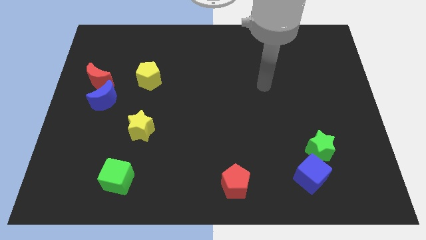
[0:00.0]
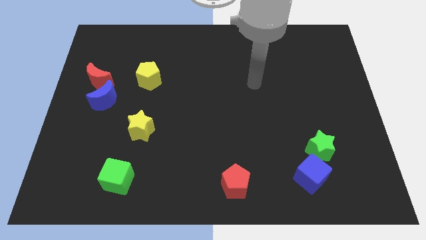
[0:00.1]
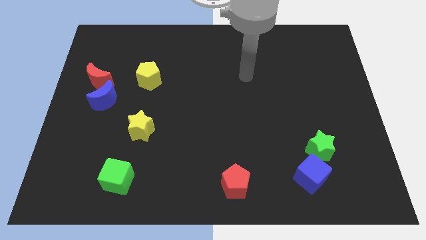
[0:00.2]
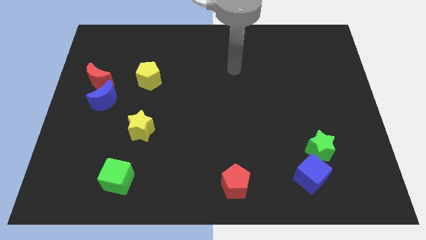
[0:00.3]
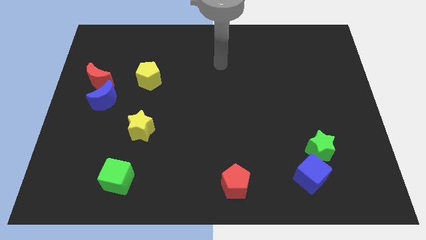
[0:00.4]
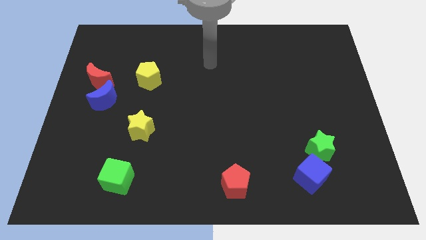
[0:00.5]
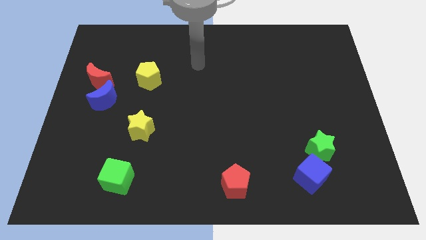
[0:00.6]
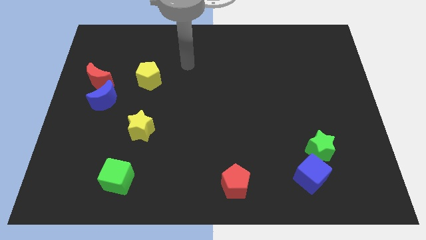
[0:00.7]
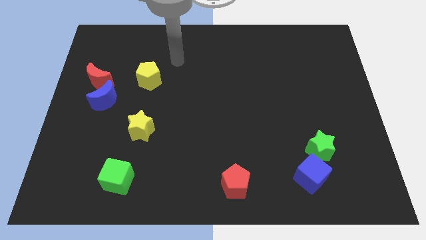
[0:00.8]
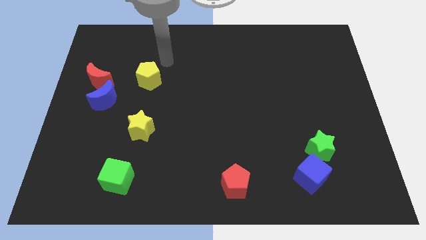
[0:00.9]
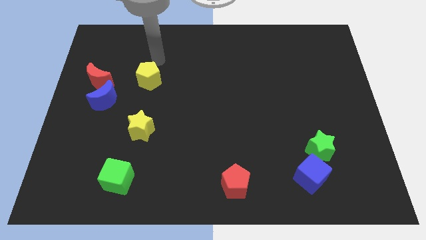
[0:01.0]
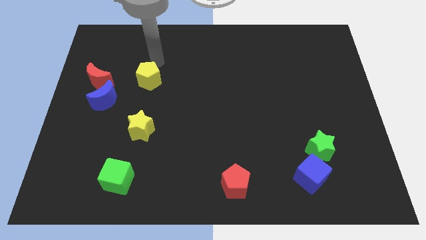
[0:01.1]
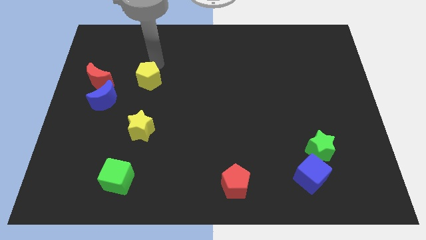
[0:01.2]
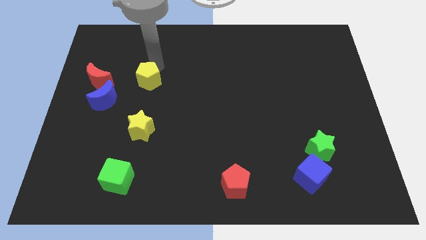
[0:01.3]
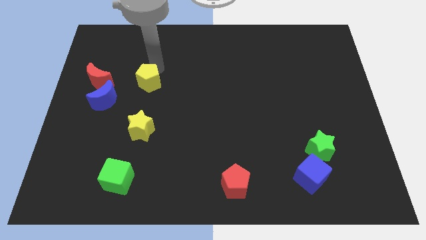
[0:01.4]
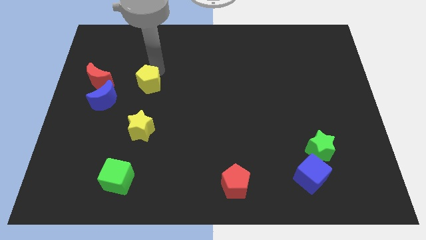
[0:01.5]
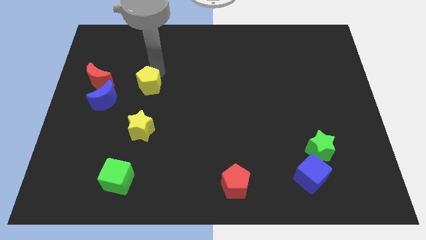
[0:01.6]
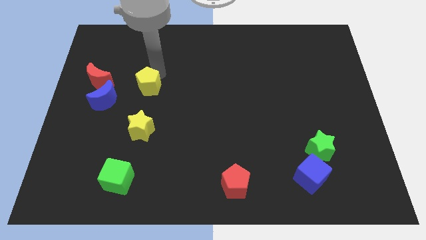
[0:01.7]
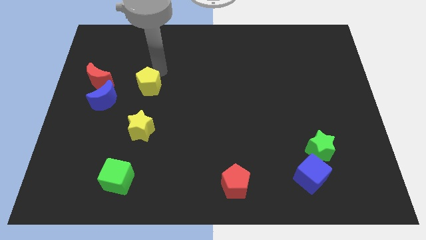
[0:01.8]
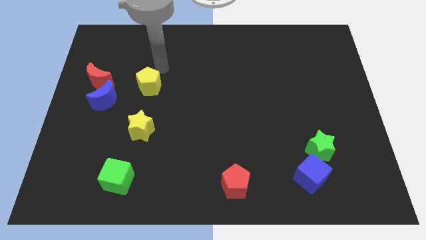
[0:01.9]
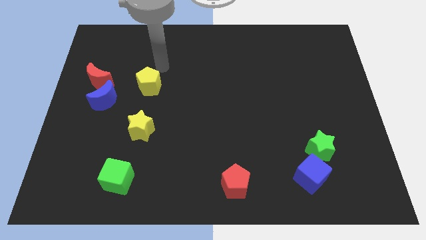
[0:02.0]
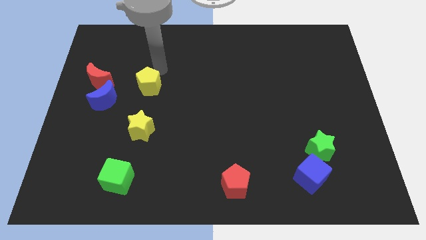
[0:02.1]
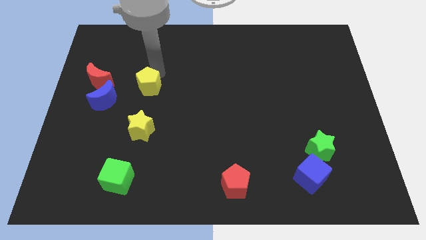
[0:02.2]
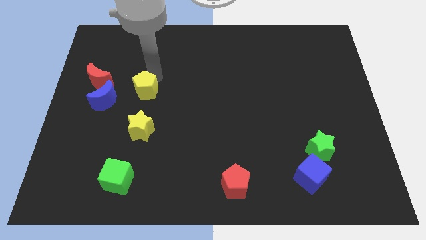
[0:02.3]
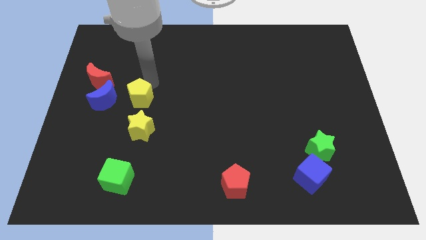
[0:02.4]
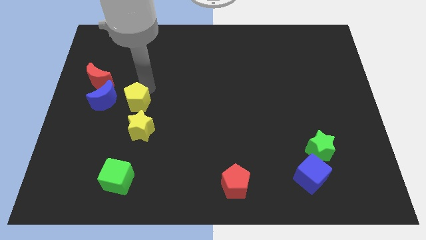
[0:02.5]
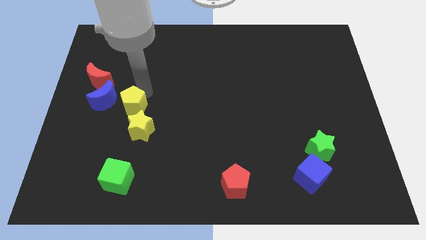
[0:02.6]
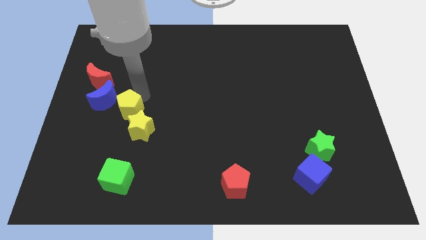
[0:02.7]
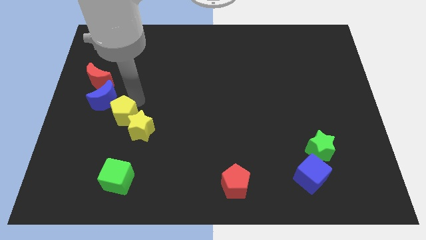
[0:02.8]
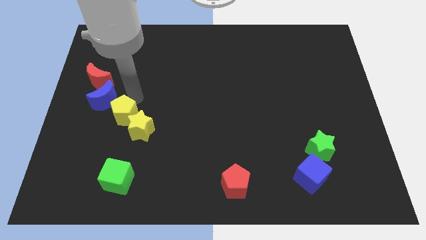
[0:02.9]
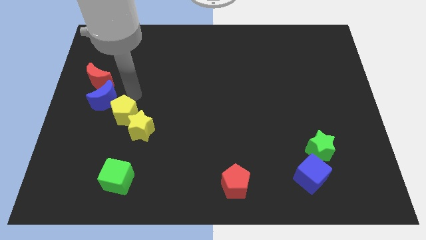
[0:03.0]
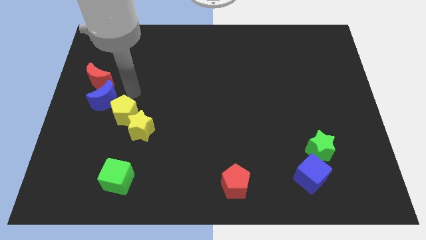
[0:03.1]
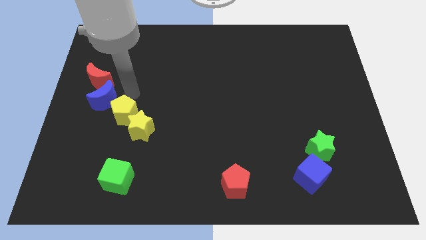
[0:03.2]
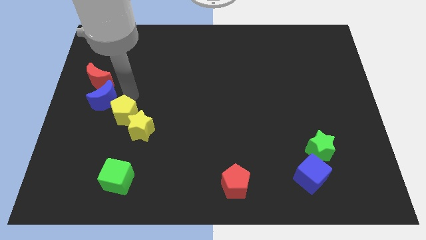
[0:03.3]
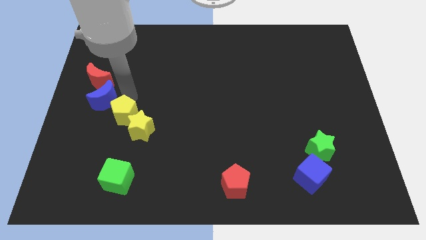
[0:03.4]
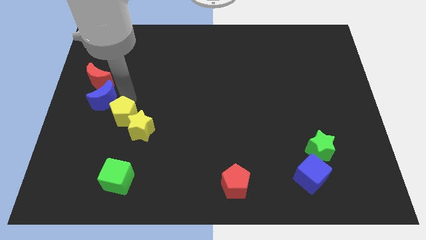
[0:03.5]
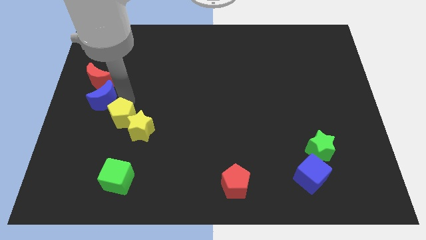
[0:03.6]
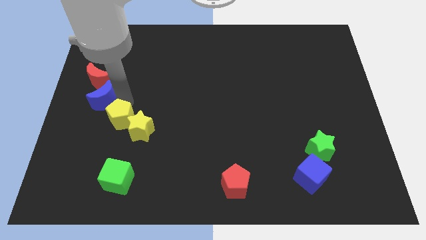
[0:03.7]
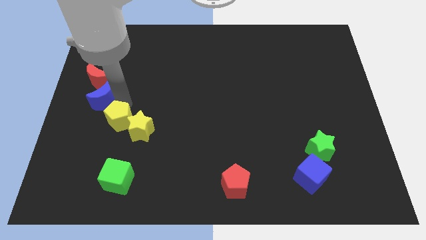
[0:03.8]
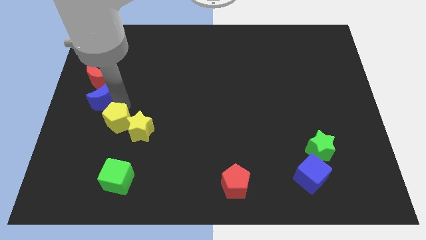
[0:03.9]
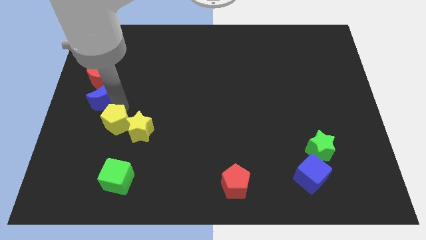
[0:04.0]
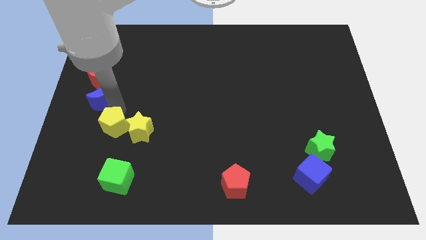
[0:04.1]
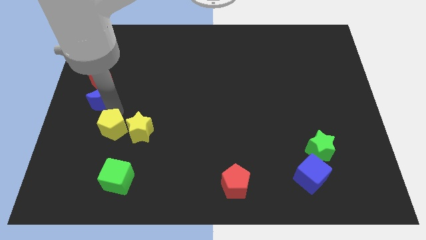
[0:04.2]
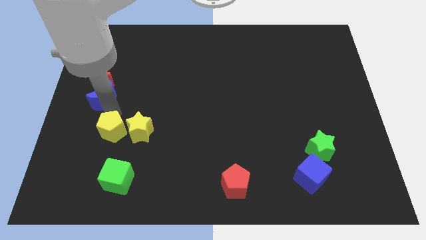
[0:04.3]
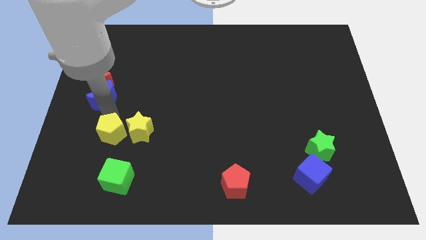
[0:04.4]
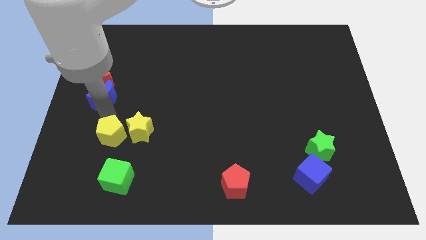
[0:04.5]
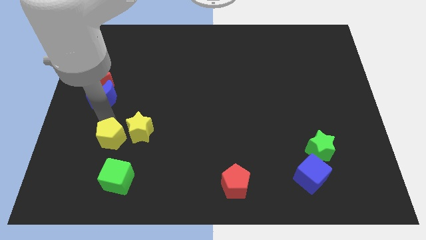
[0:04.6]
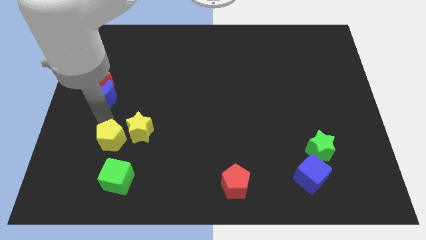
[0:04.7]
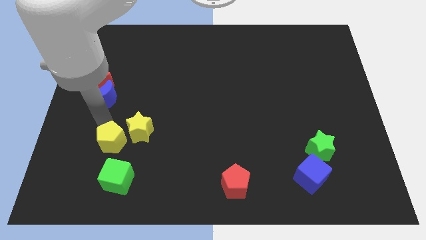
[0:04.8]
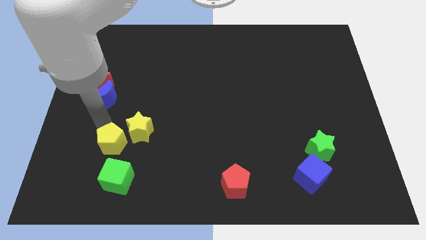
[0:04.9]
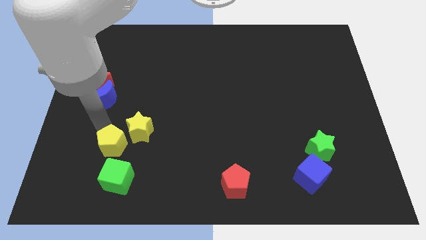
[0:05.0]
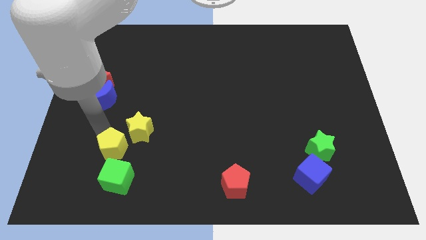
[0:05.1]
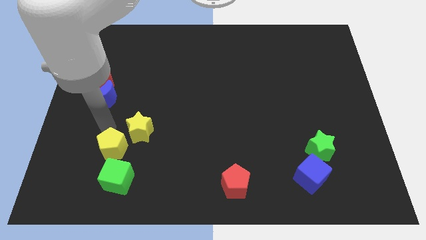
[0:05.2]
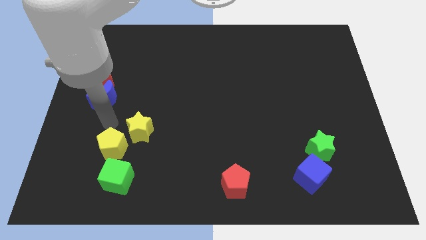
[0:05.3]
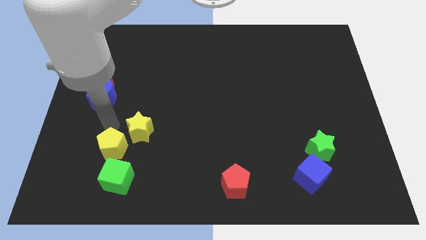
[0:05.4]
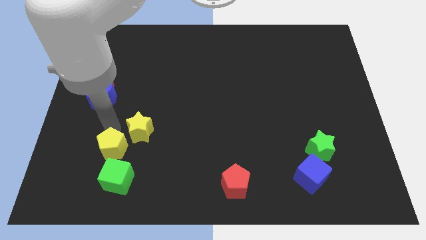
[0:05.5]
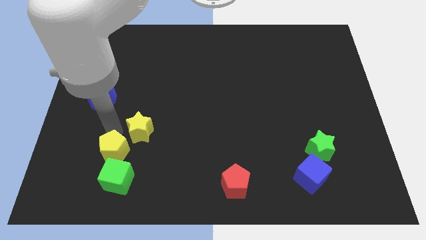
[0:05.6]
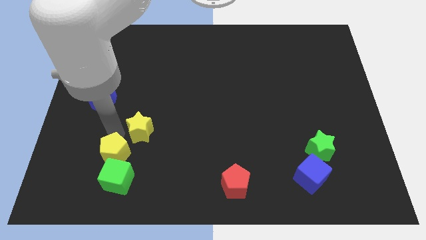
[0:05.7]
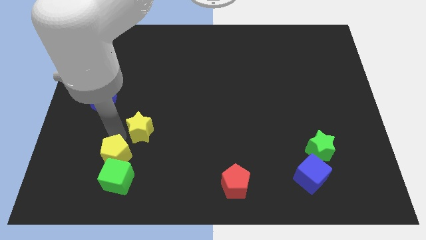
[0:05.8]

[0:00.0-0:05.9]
slide the yellow pentagon next to the green cube

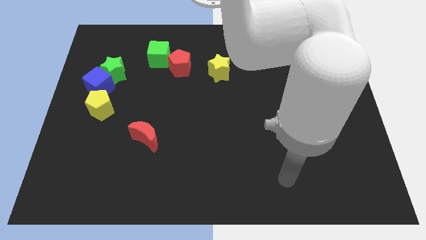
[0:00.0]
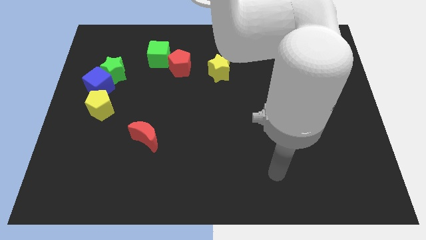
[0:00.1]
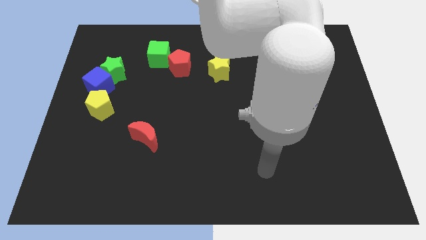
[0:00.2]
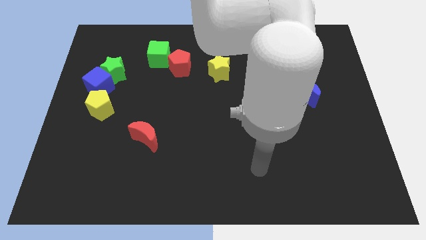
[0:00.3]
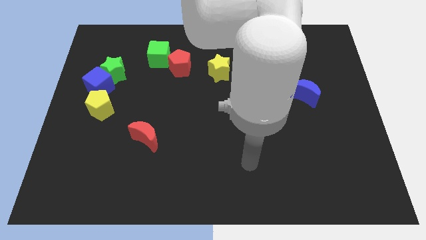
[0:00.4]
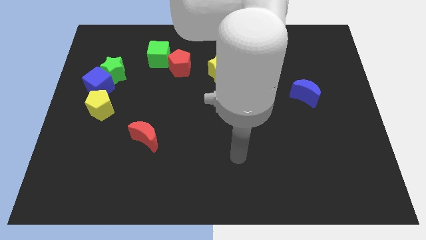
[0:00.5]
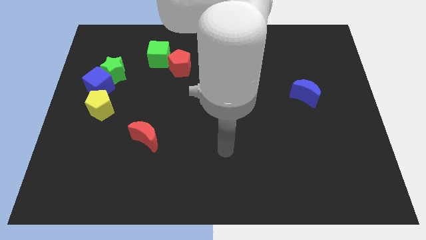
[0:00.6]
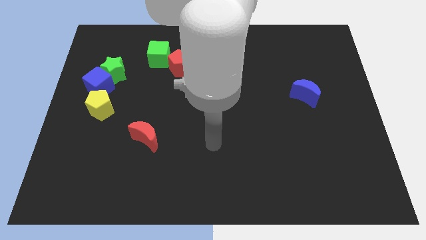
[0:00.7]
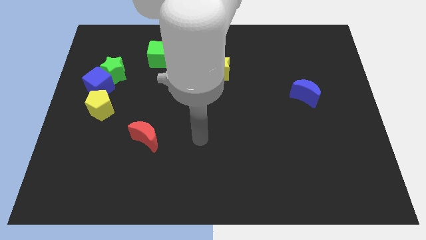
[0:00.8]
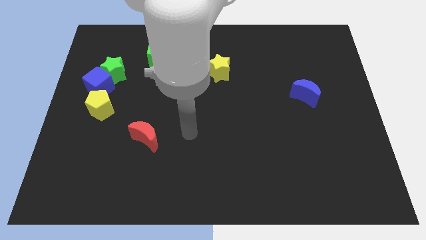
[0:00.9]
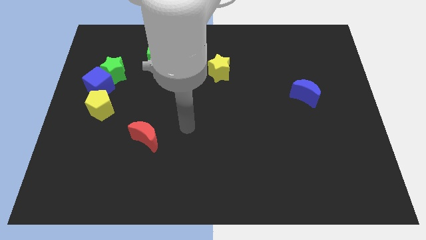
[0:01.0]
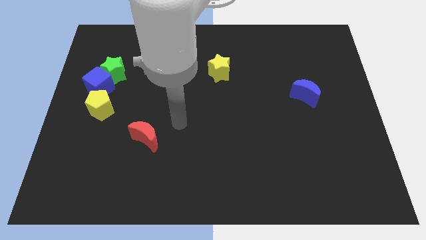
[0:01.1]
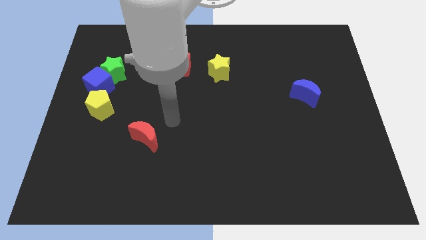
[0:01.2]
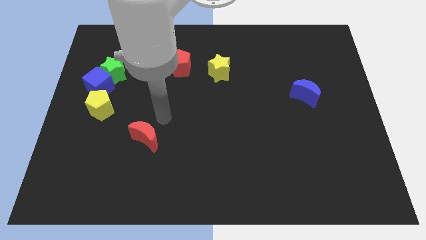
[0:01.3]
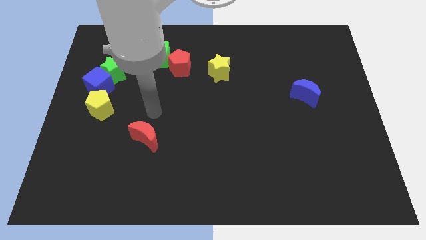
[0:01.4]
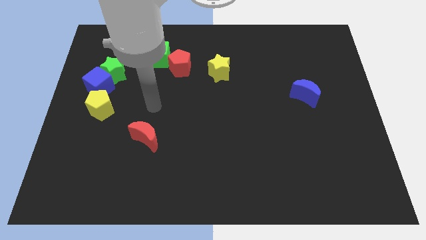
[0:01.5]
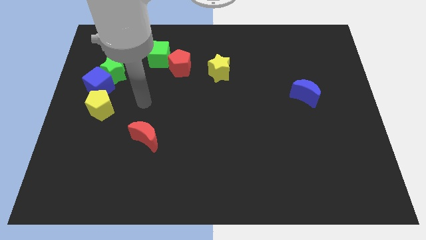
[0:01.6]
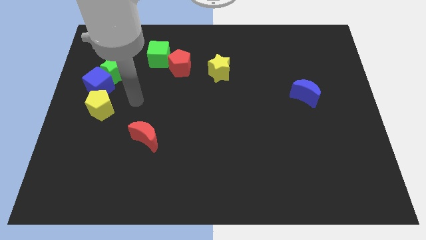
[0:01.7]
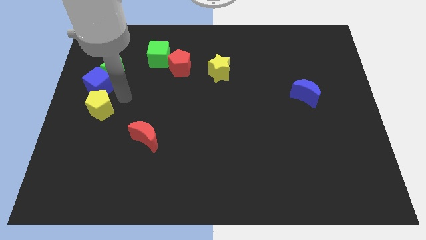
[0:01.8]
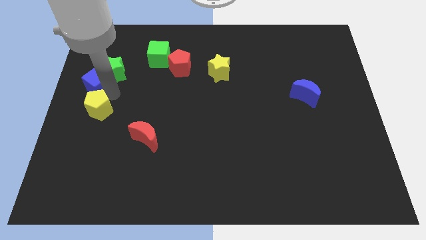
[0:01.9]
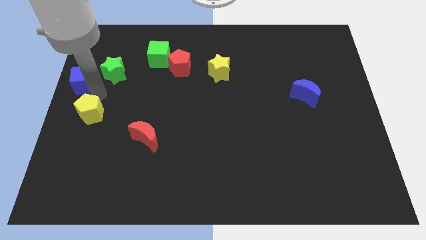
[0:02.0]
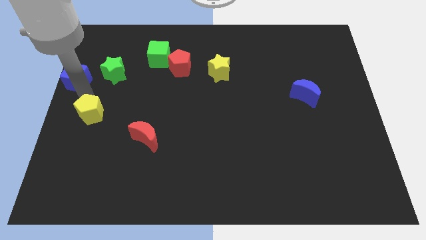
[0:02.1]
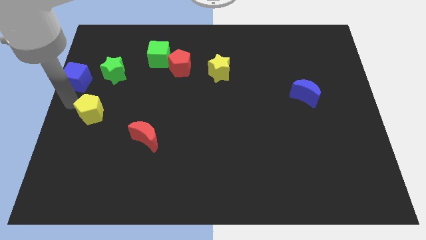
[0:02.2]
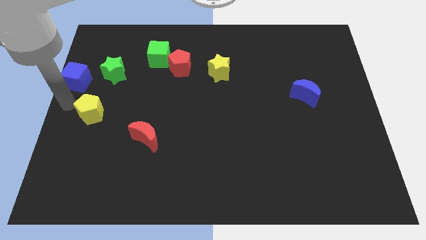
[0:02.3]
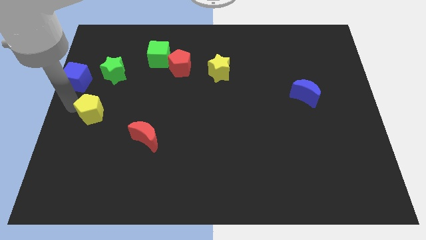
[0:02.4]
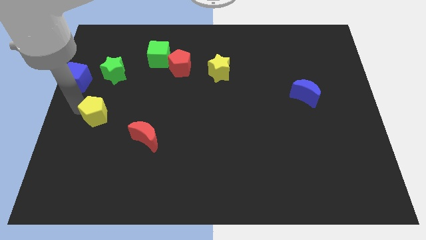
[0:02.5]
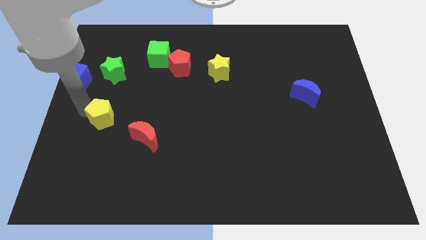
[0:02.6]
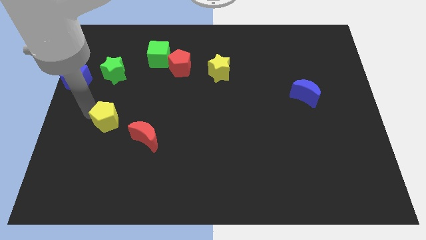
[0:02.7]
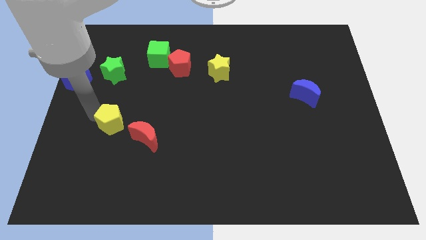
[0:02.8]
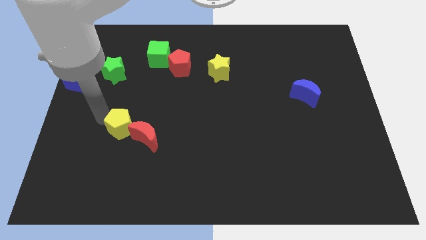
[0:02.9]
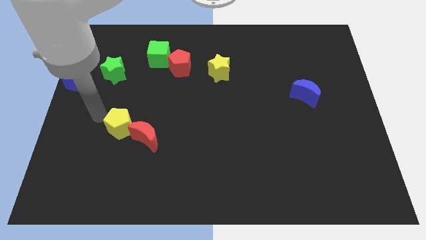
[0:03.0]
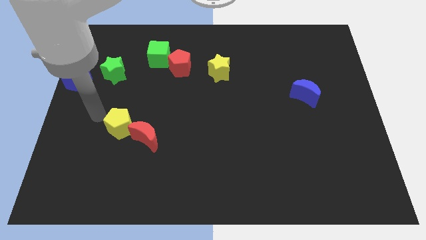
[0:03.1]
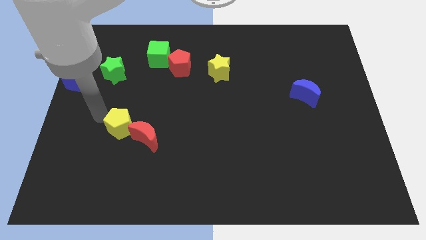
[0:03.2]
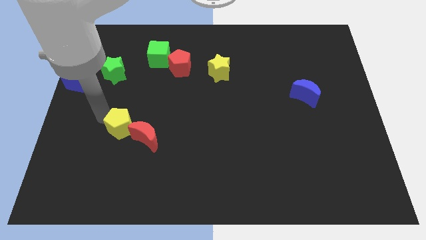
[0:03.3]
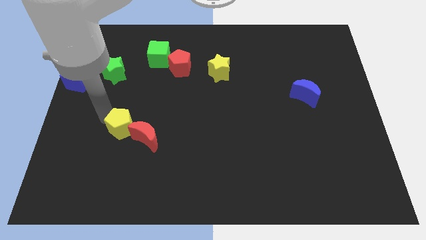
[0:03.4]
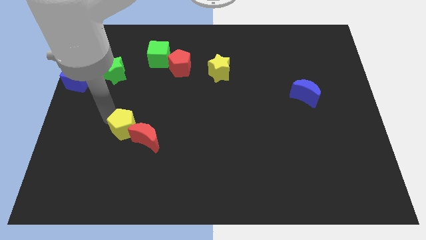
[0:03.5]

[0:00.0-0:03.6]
slide the yellow pentagon close to the red moon
